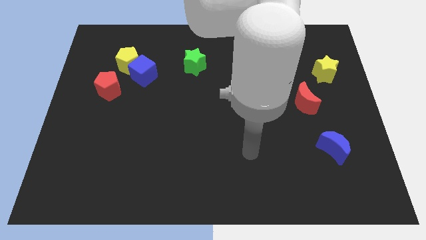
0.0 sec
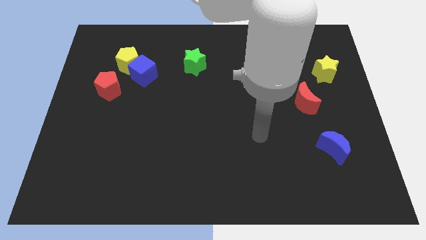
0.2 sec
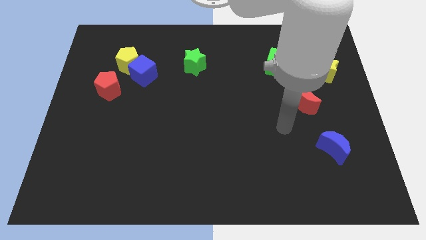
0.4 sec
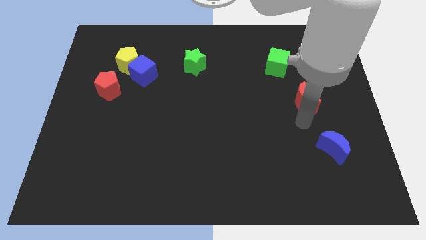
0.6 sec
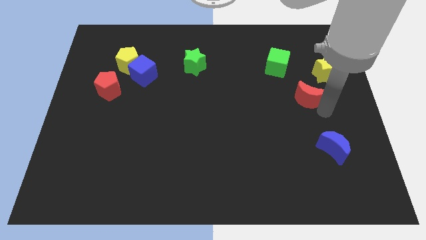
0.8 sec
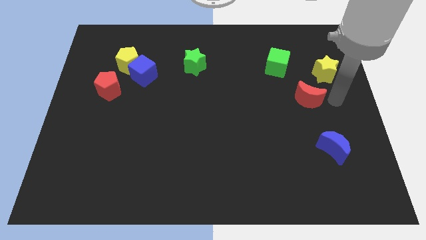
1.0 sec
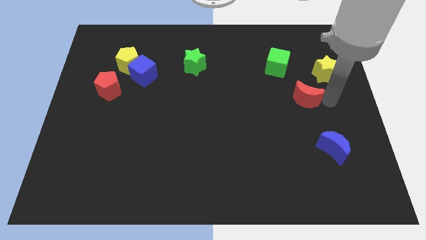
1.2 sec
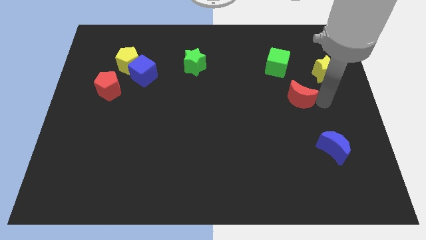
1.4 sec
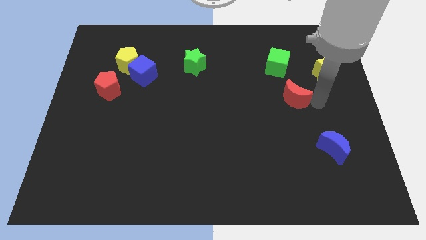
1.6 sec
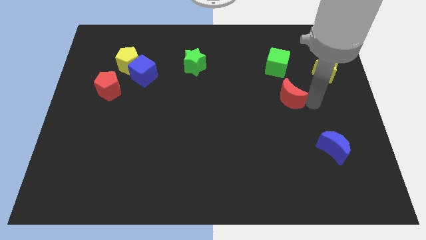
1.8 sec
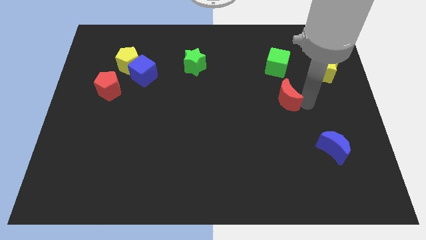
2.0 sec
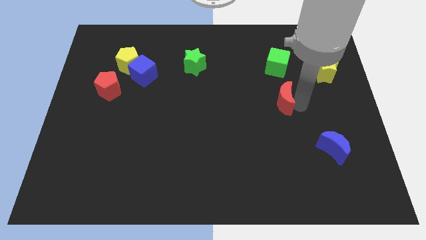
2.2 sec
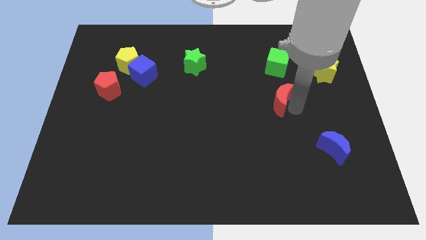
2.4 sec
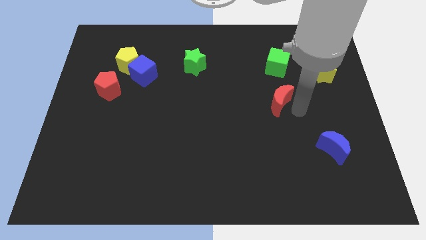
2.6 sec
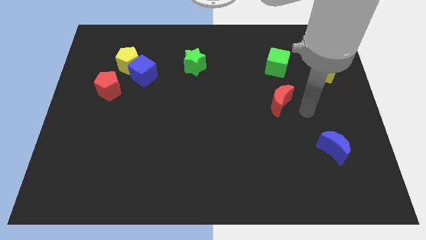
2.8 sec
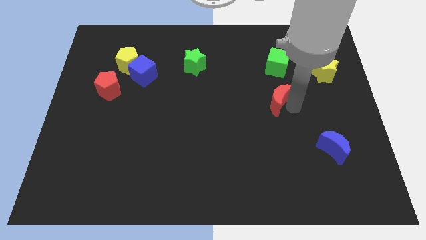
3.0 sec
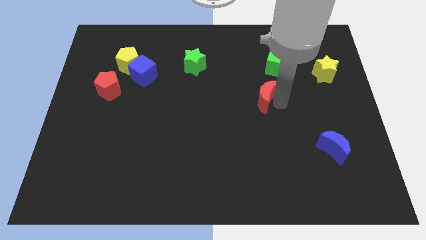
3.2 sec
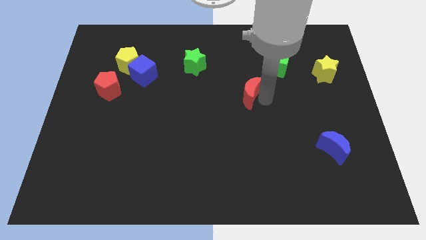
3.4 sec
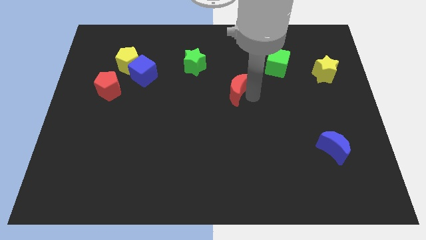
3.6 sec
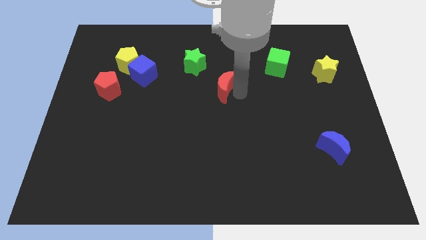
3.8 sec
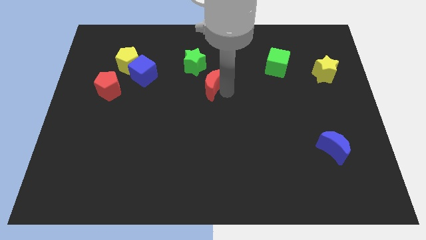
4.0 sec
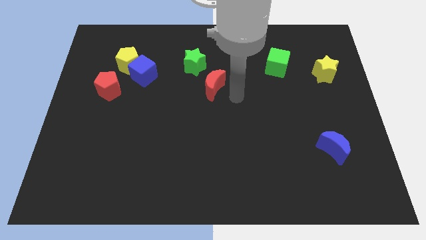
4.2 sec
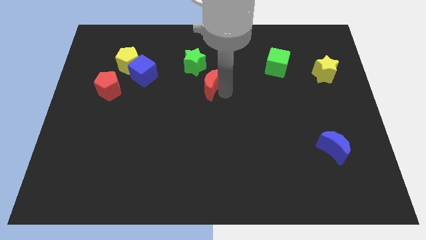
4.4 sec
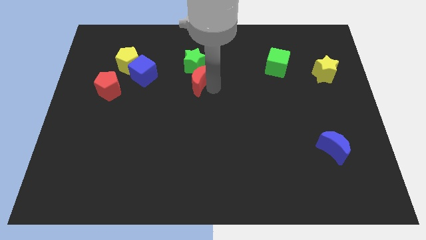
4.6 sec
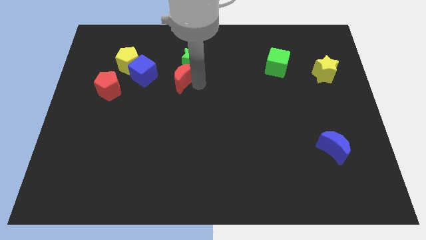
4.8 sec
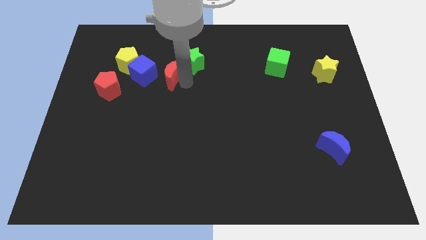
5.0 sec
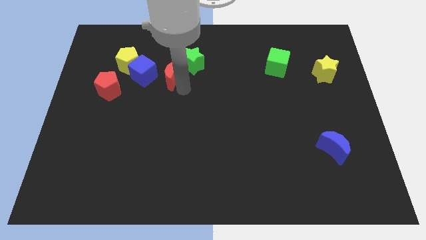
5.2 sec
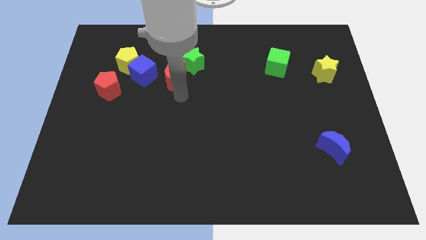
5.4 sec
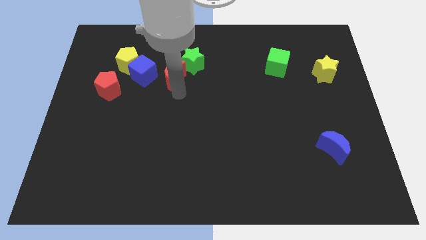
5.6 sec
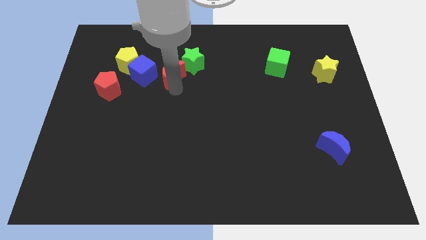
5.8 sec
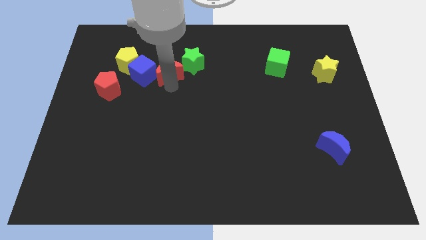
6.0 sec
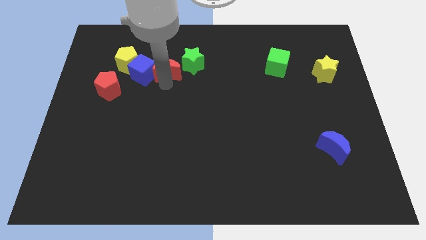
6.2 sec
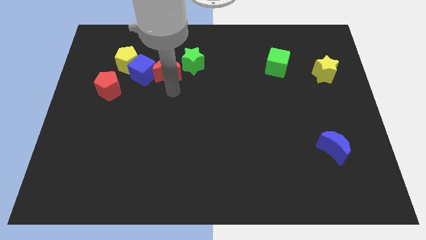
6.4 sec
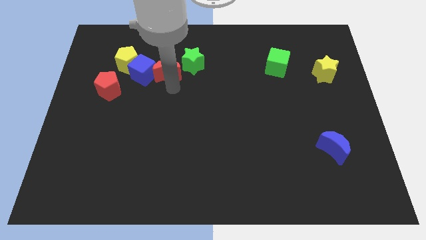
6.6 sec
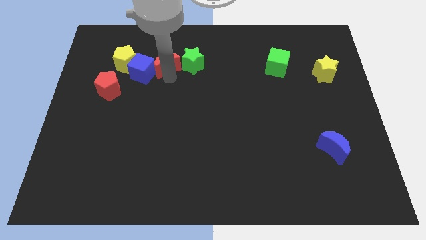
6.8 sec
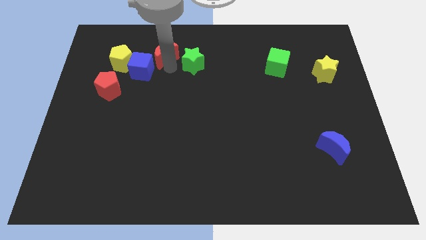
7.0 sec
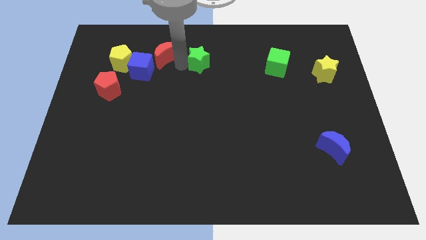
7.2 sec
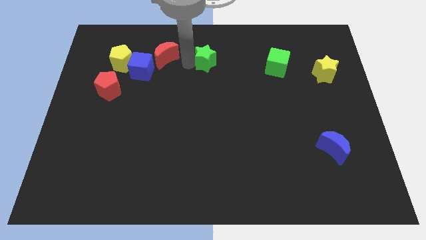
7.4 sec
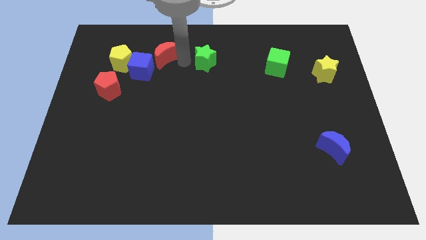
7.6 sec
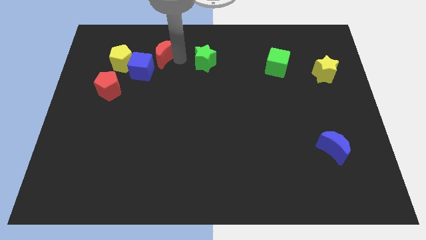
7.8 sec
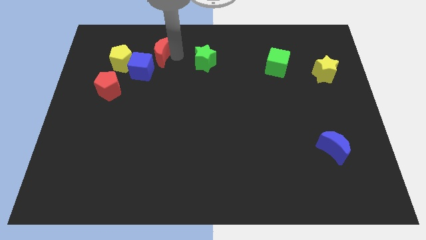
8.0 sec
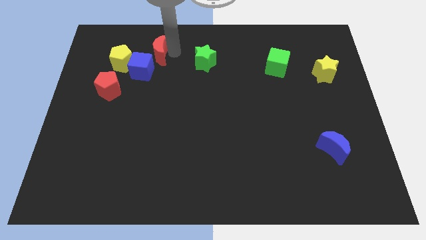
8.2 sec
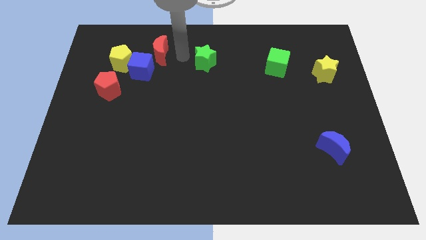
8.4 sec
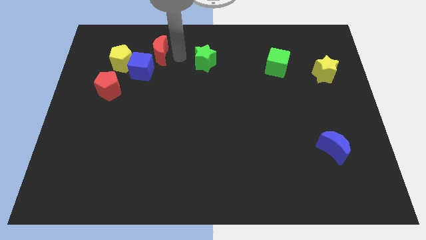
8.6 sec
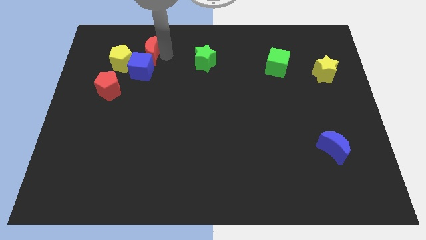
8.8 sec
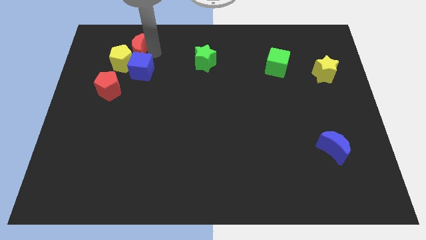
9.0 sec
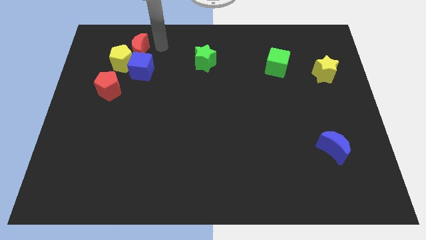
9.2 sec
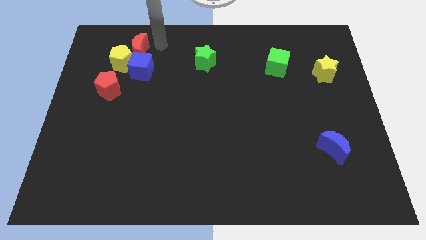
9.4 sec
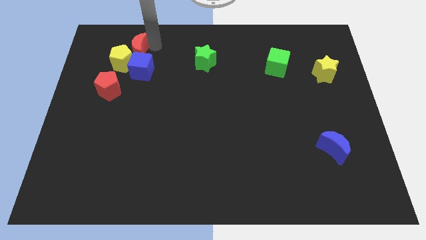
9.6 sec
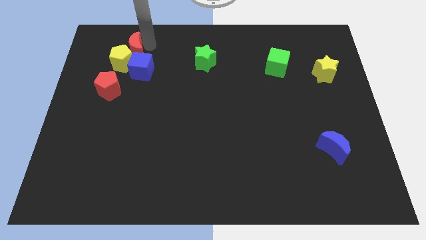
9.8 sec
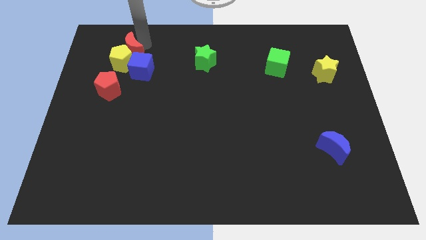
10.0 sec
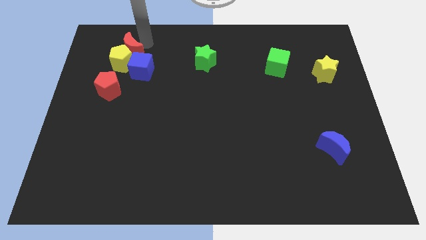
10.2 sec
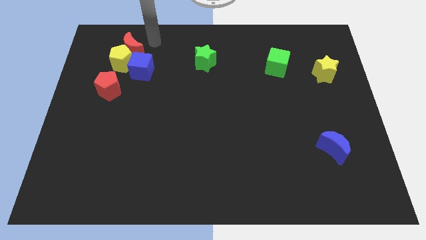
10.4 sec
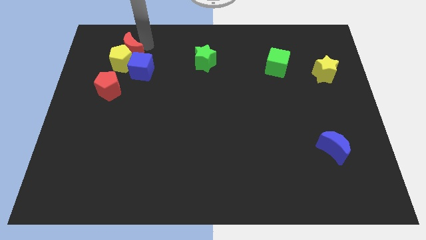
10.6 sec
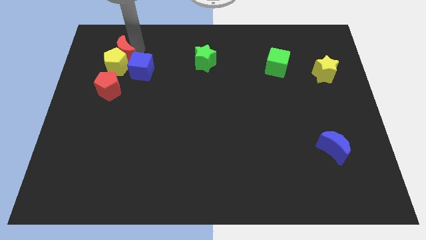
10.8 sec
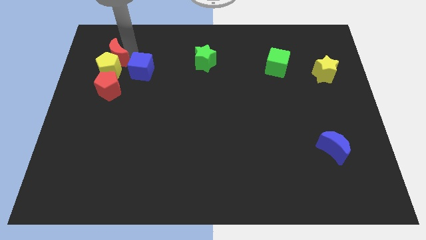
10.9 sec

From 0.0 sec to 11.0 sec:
put the red moon to the left side of the blue cube

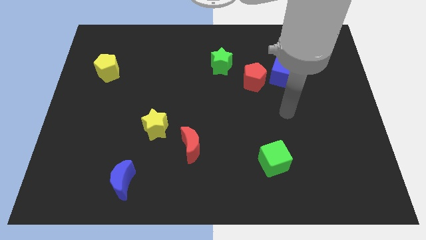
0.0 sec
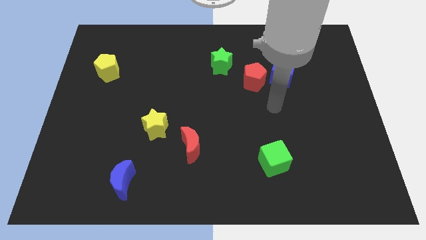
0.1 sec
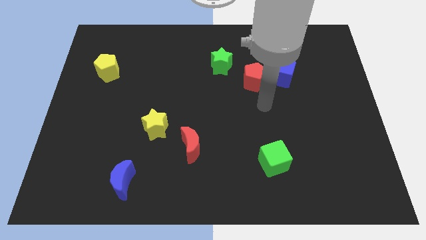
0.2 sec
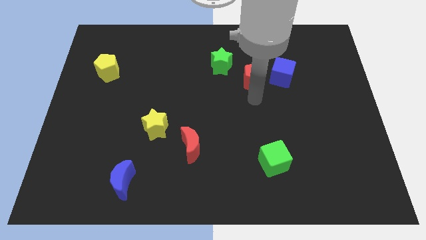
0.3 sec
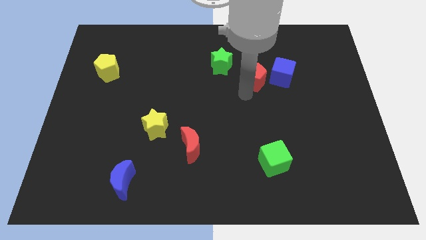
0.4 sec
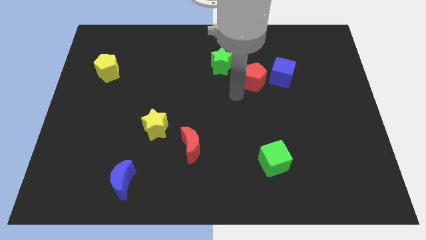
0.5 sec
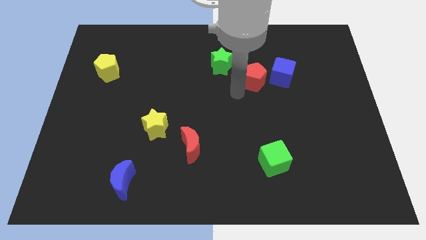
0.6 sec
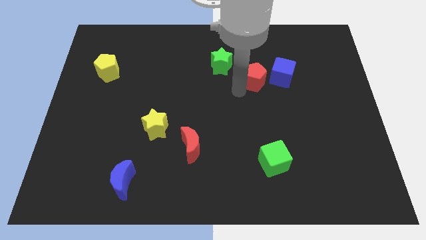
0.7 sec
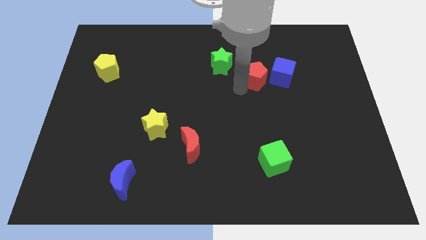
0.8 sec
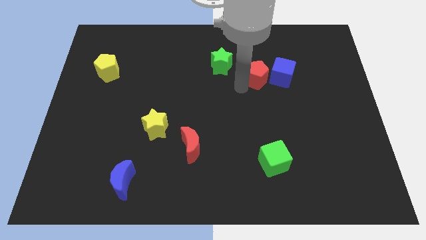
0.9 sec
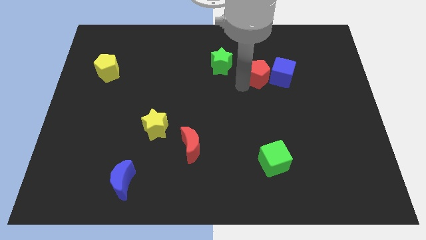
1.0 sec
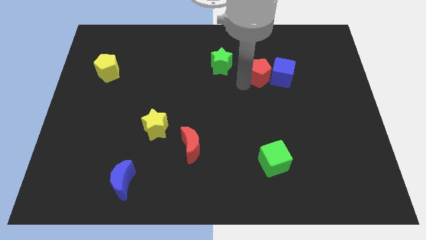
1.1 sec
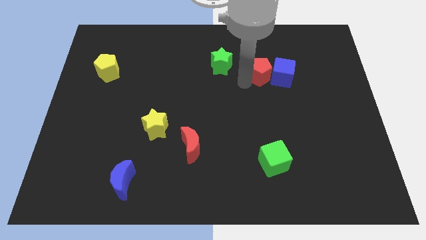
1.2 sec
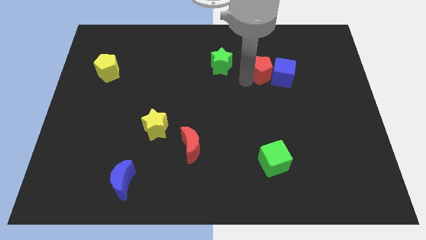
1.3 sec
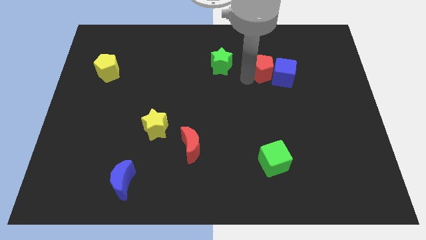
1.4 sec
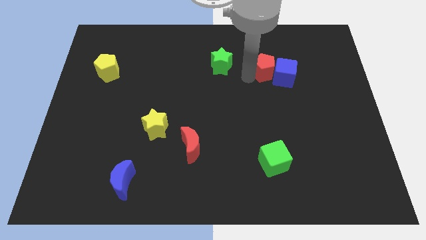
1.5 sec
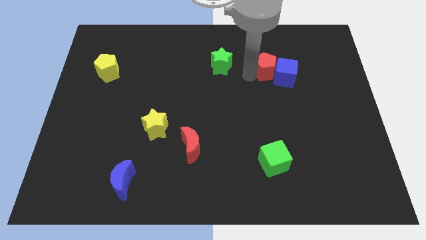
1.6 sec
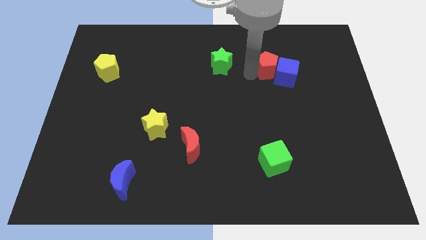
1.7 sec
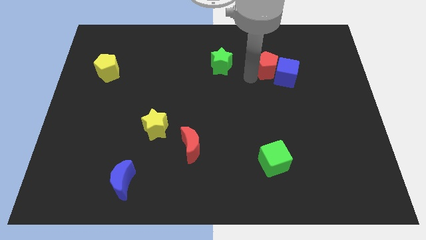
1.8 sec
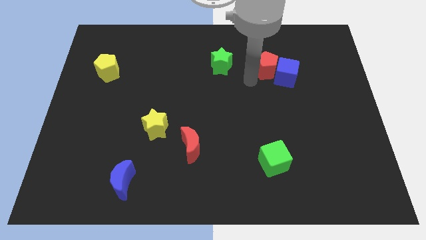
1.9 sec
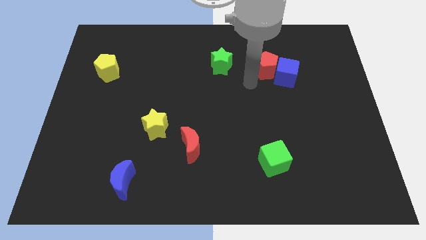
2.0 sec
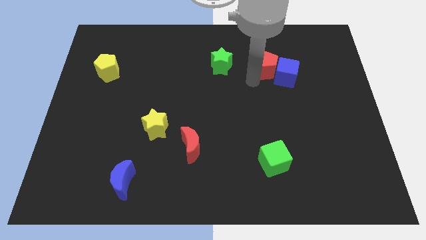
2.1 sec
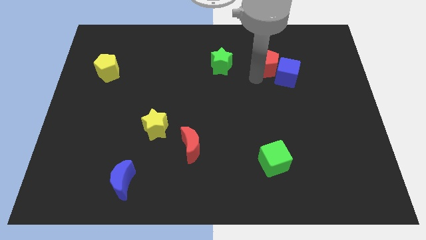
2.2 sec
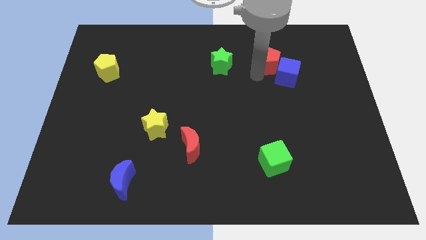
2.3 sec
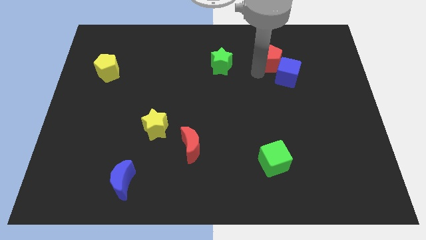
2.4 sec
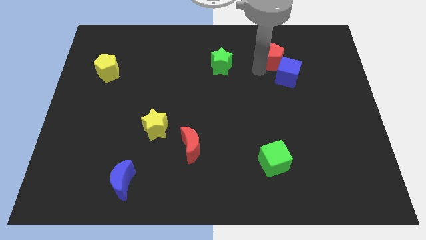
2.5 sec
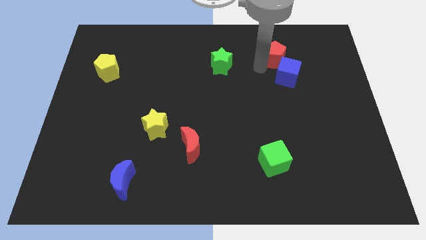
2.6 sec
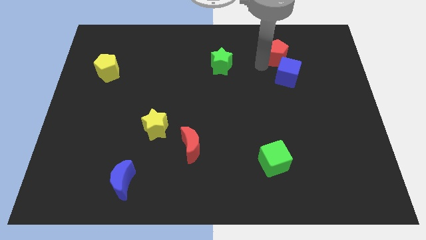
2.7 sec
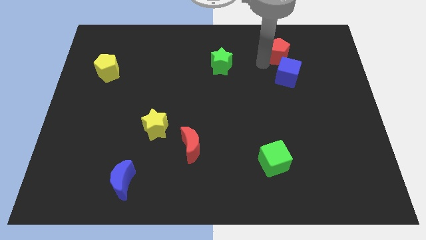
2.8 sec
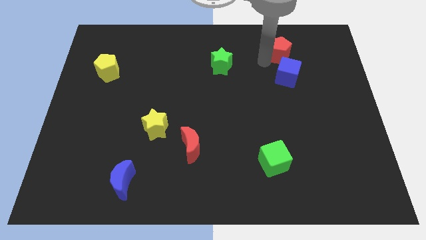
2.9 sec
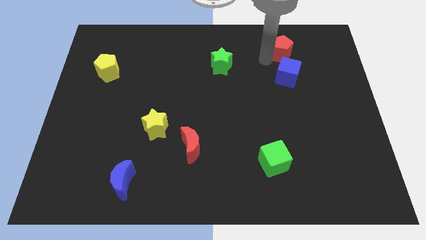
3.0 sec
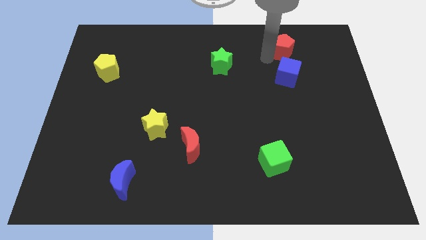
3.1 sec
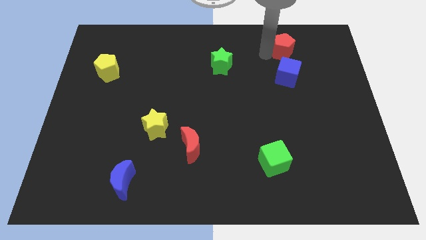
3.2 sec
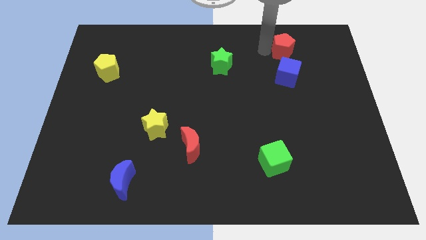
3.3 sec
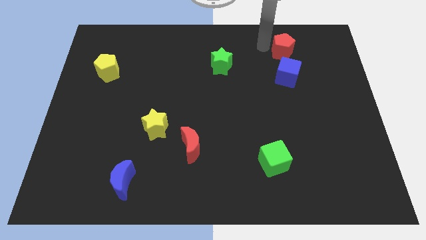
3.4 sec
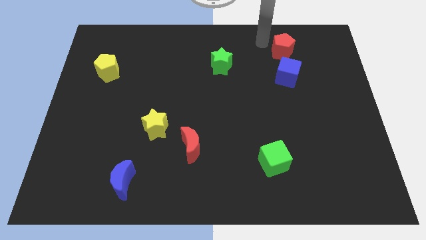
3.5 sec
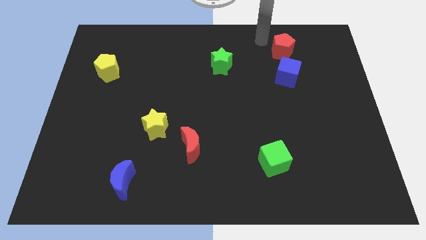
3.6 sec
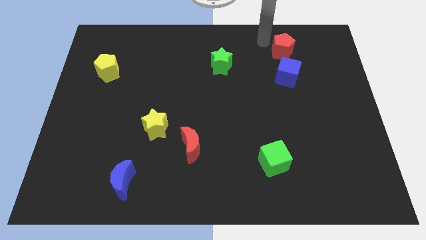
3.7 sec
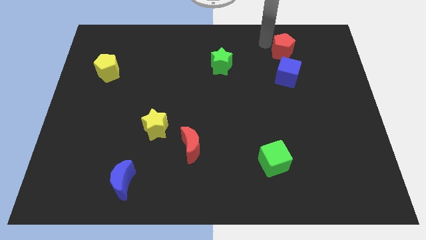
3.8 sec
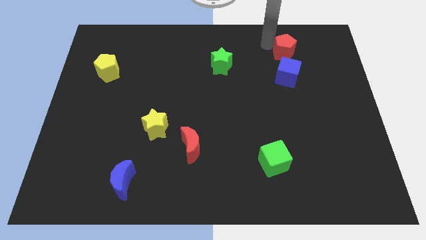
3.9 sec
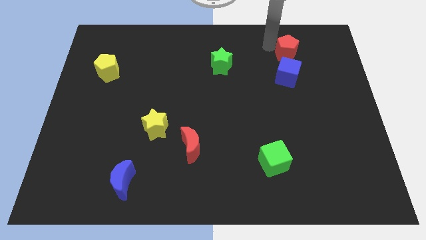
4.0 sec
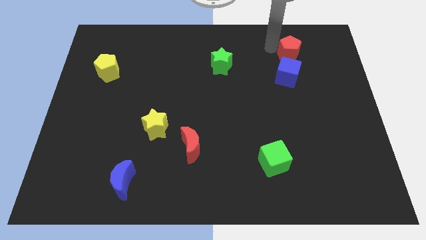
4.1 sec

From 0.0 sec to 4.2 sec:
put the red pentagon to the top right of the blue cube
